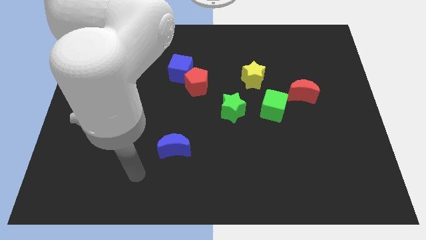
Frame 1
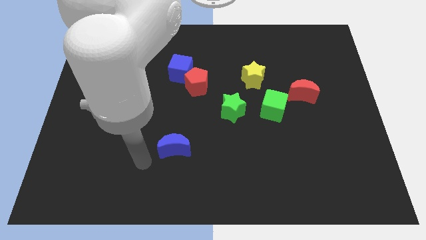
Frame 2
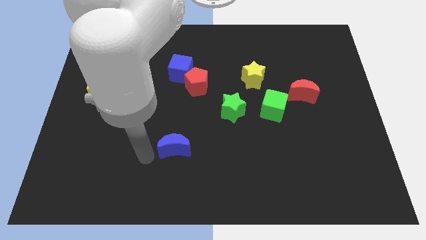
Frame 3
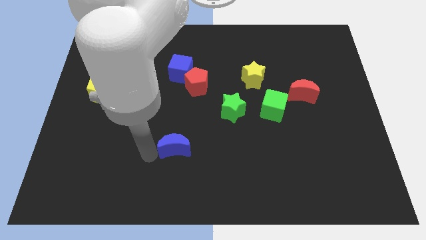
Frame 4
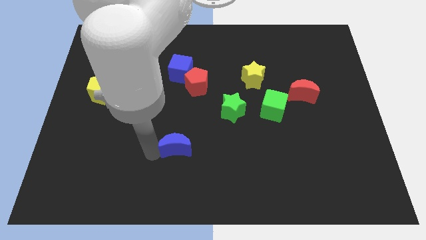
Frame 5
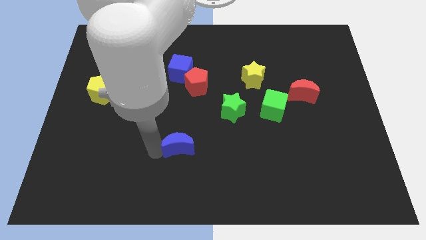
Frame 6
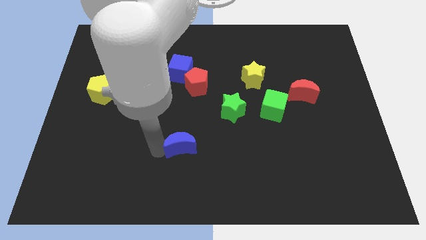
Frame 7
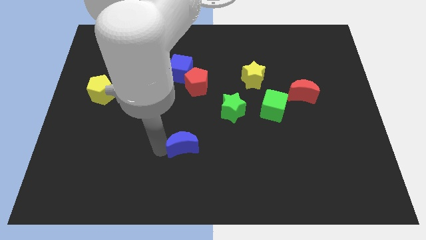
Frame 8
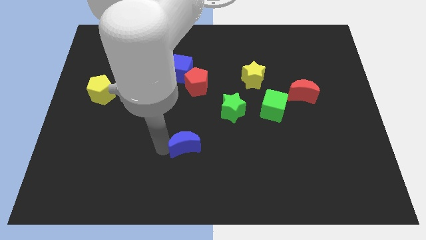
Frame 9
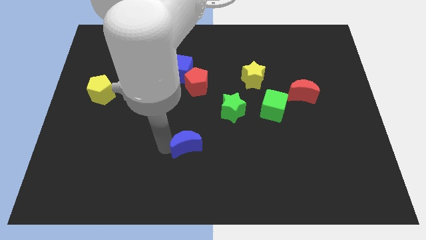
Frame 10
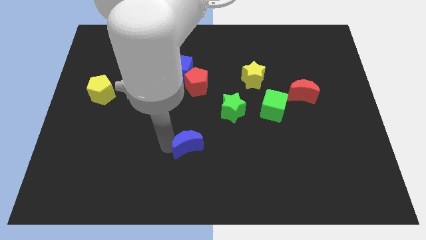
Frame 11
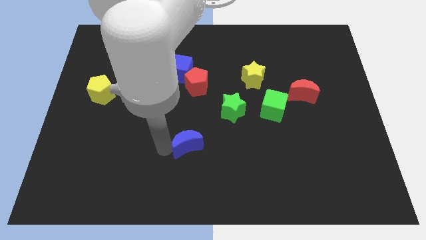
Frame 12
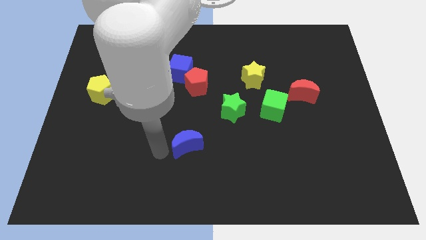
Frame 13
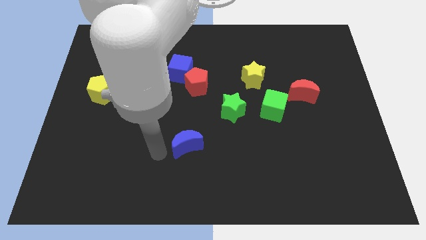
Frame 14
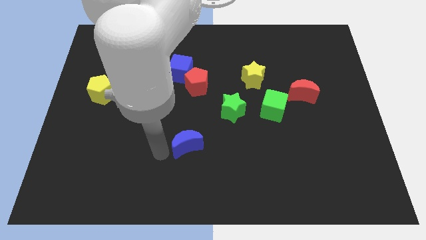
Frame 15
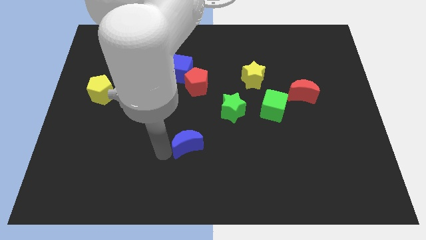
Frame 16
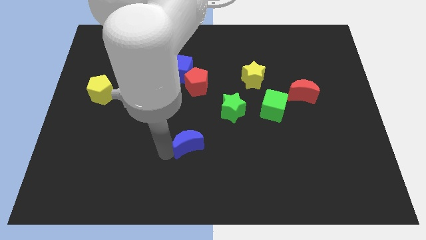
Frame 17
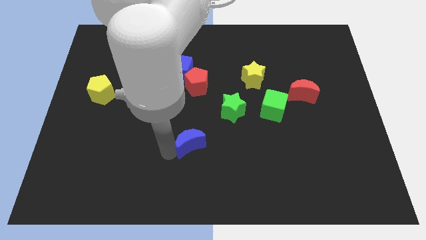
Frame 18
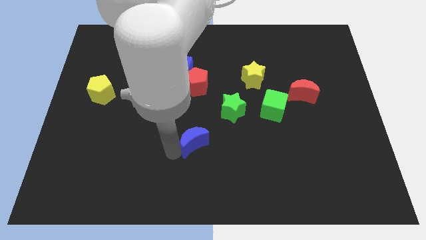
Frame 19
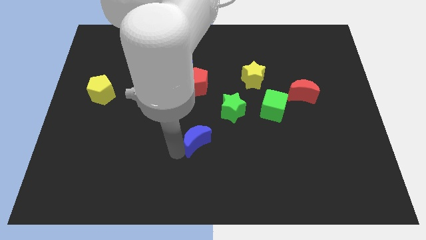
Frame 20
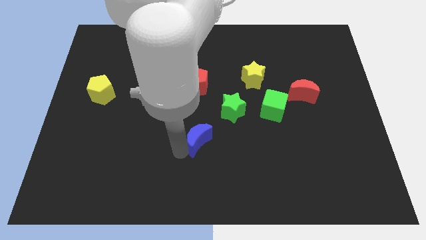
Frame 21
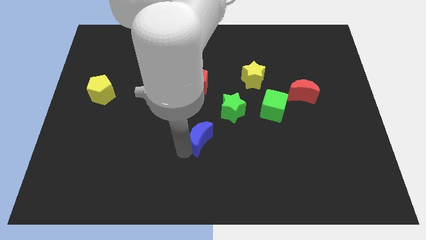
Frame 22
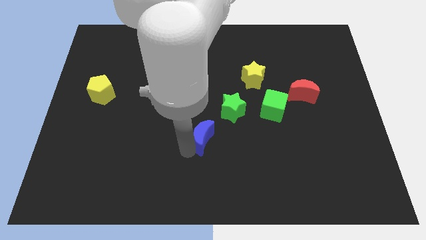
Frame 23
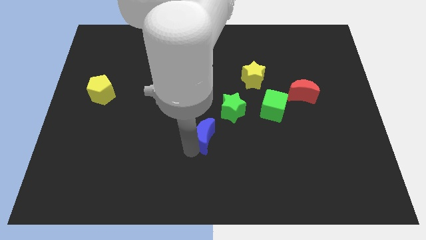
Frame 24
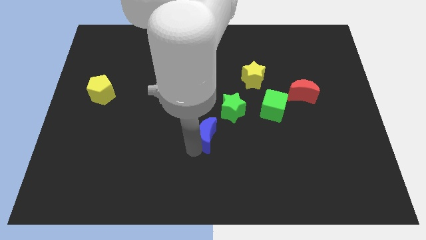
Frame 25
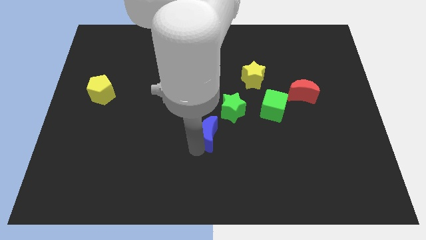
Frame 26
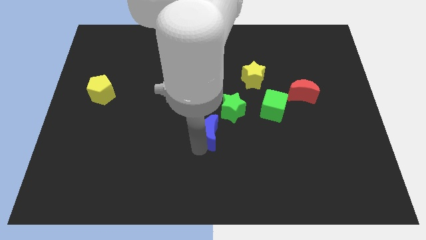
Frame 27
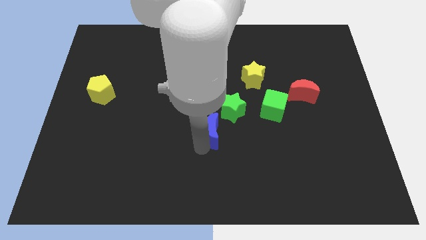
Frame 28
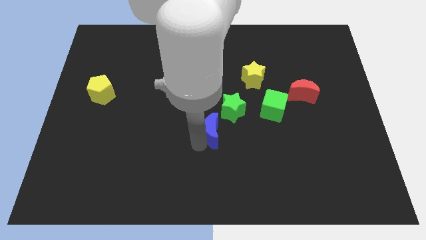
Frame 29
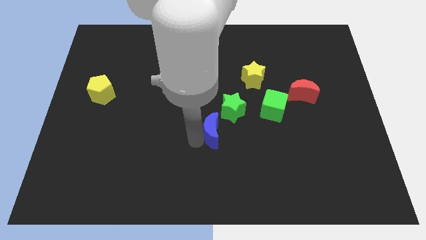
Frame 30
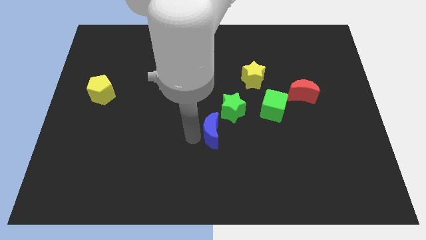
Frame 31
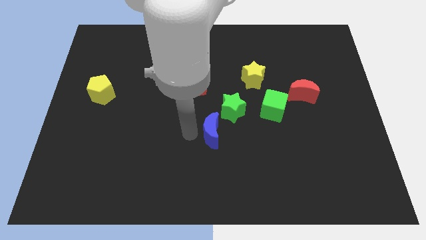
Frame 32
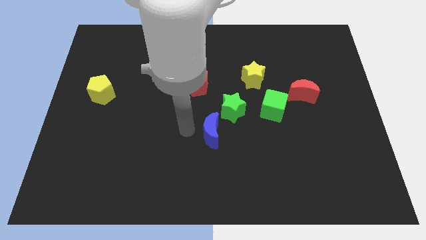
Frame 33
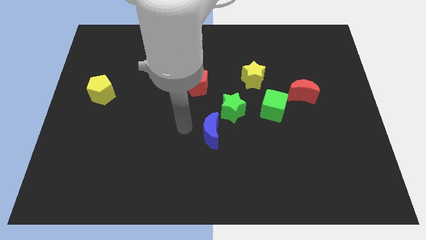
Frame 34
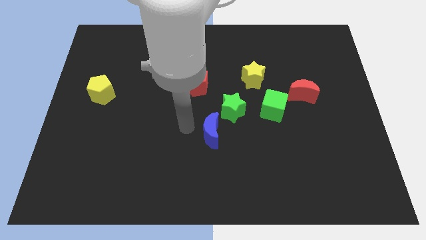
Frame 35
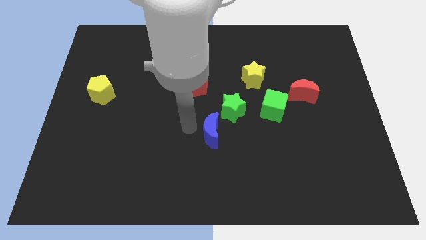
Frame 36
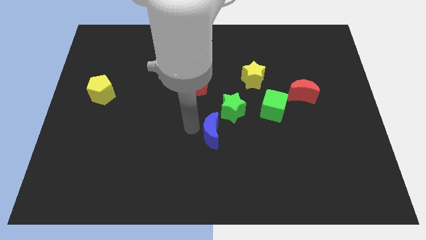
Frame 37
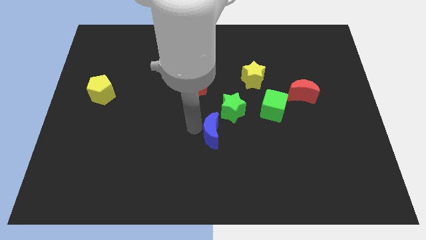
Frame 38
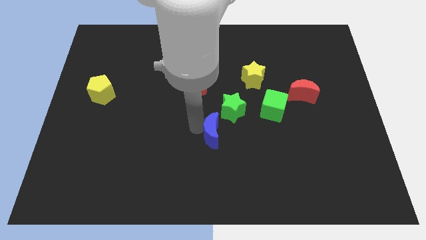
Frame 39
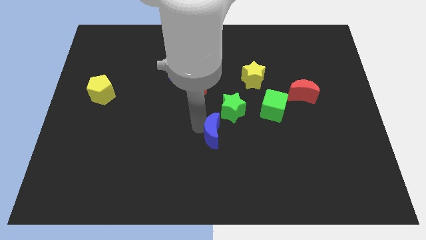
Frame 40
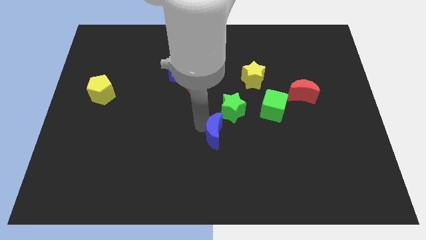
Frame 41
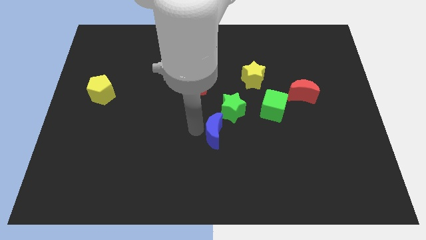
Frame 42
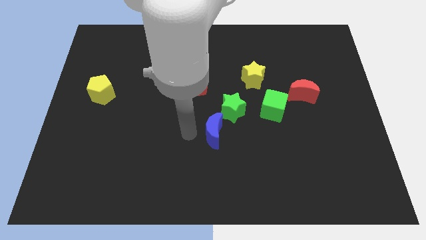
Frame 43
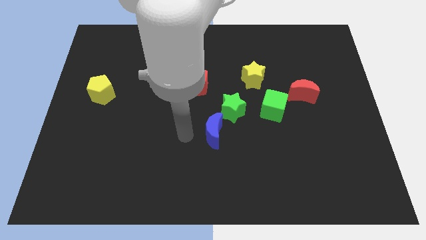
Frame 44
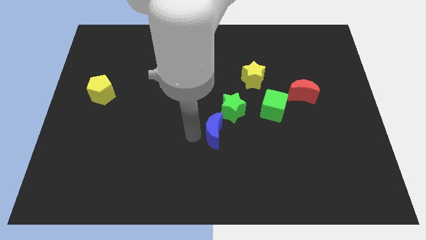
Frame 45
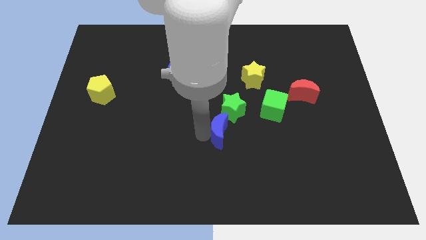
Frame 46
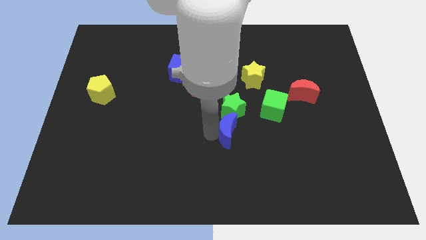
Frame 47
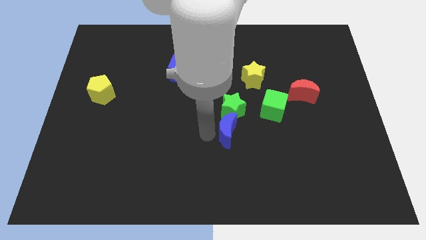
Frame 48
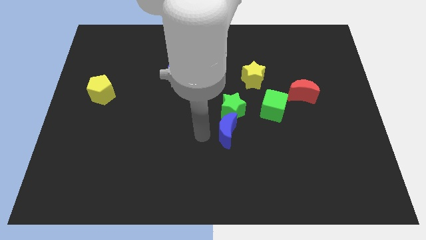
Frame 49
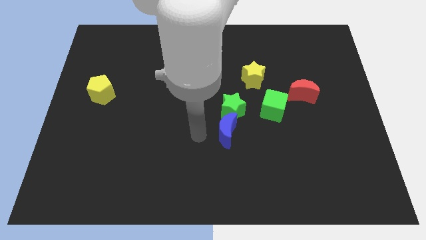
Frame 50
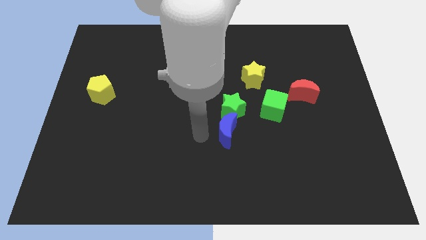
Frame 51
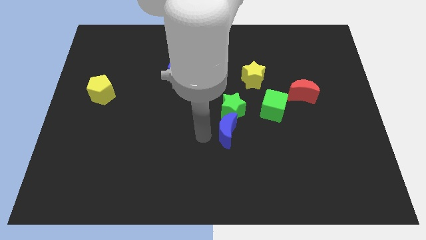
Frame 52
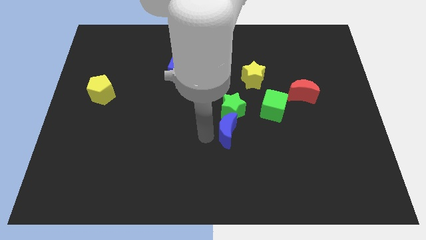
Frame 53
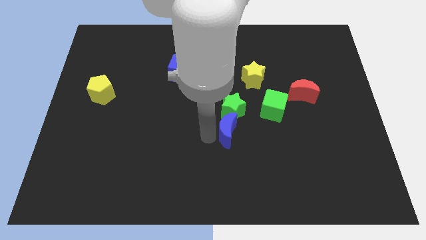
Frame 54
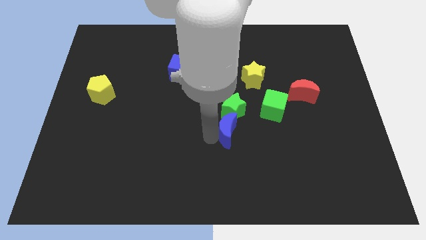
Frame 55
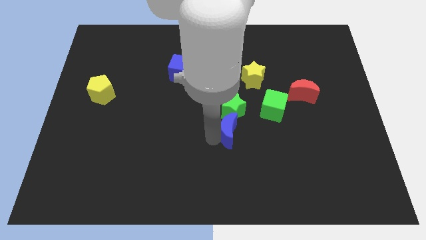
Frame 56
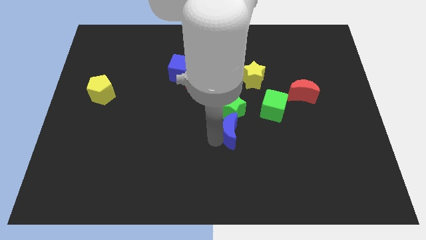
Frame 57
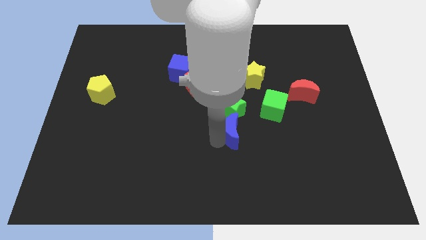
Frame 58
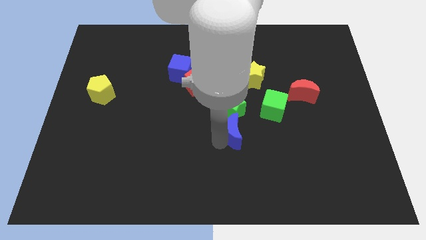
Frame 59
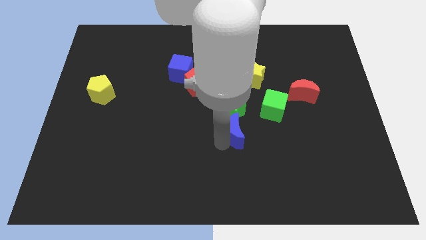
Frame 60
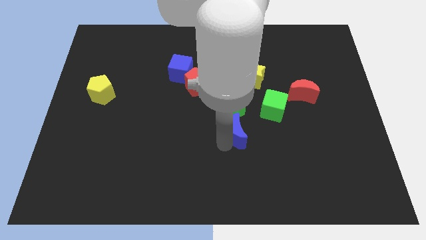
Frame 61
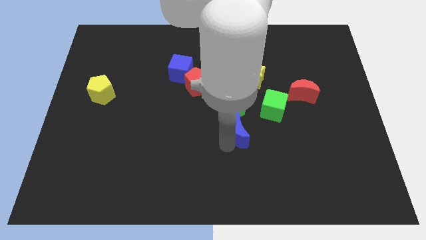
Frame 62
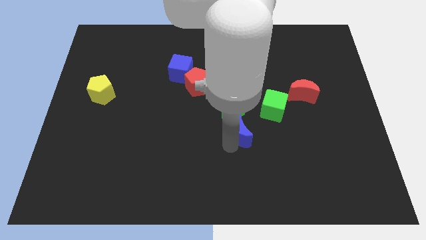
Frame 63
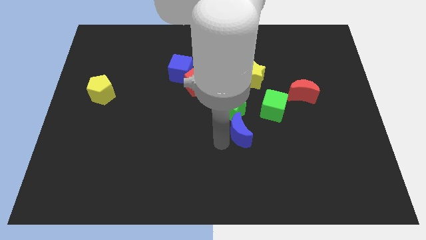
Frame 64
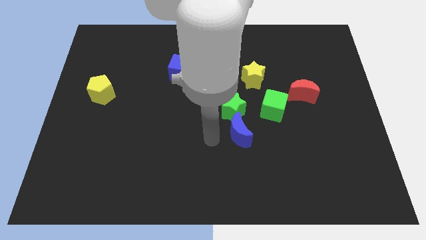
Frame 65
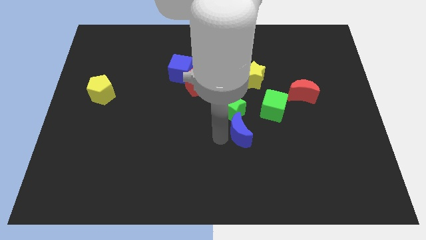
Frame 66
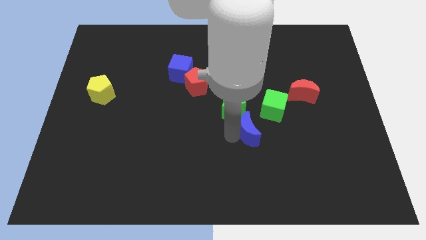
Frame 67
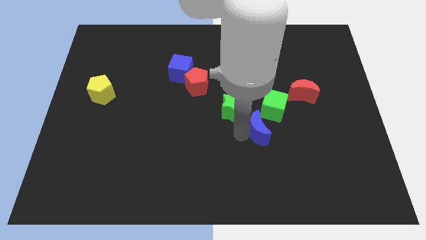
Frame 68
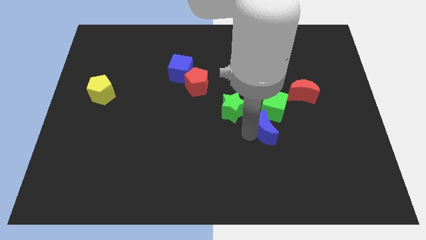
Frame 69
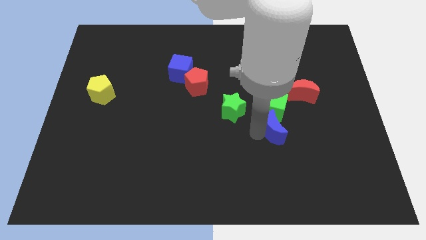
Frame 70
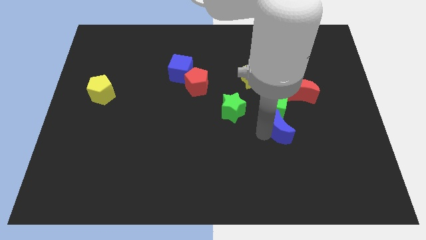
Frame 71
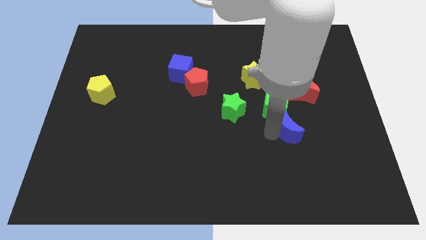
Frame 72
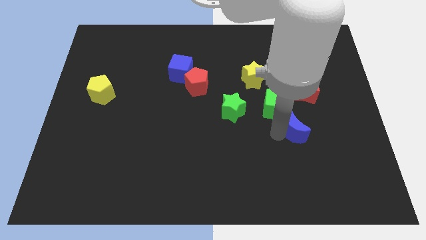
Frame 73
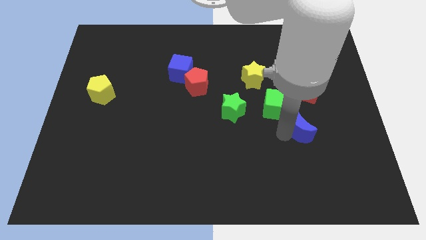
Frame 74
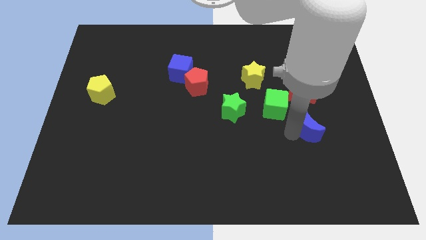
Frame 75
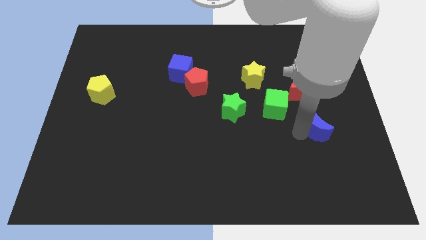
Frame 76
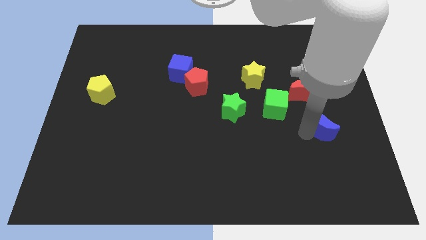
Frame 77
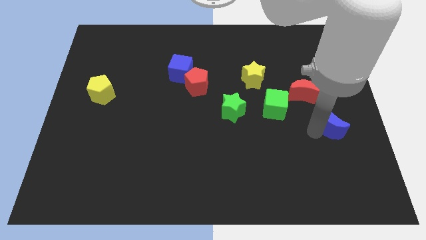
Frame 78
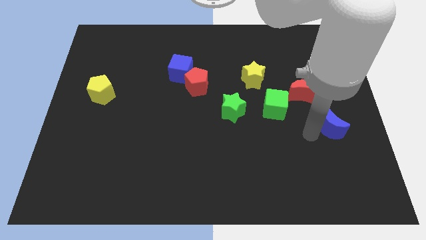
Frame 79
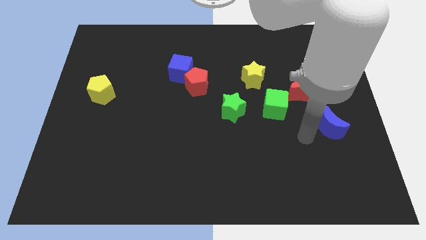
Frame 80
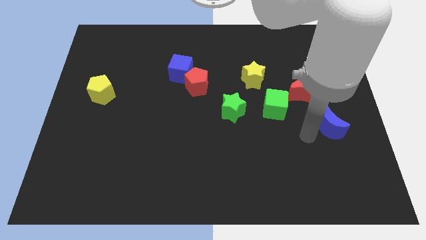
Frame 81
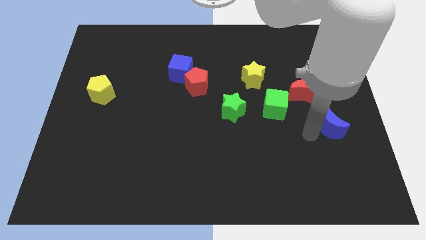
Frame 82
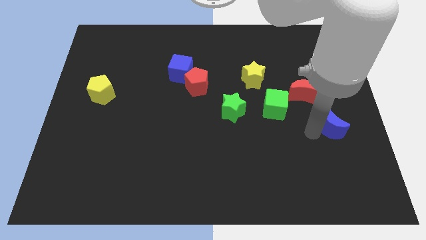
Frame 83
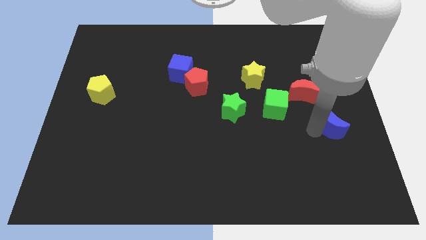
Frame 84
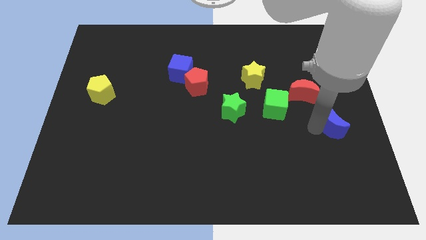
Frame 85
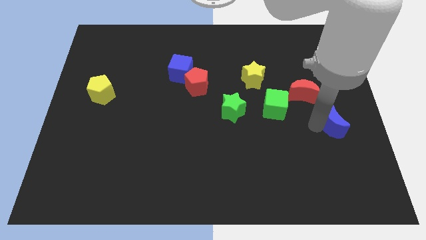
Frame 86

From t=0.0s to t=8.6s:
slide the blue moon to the right side of the board
